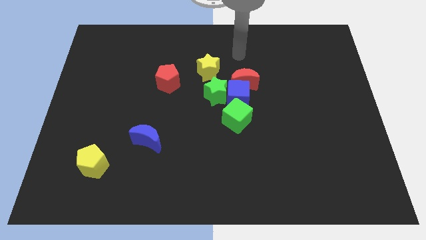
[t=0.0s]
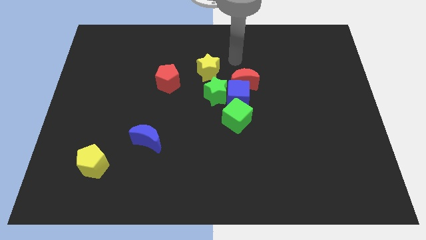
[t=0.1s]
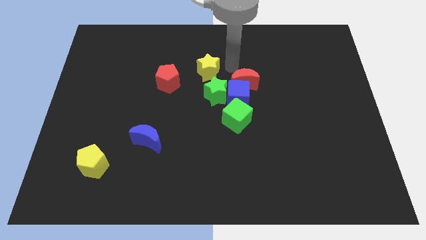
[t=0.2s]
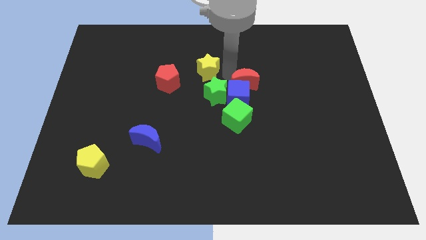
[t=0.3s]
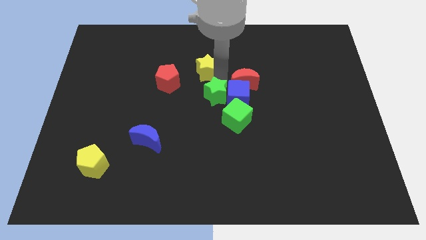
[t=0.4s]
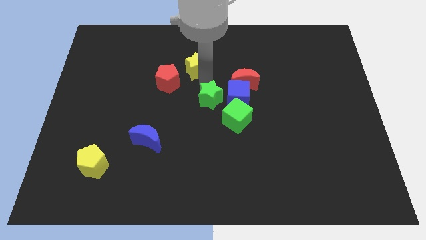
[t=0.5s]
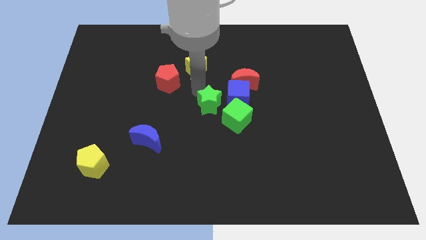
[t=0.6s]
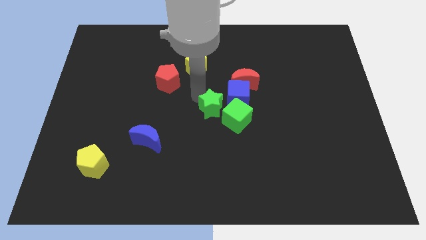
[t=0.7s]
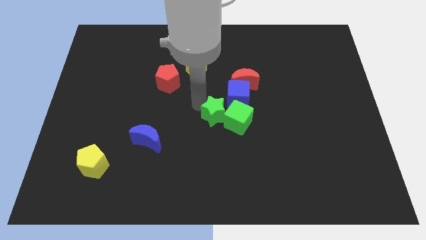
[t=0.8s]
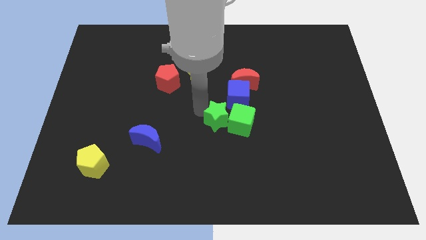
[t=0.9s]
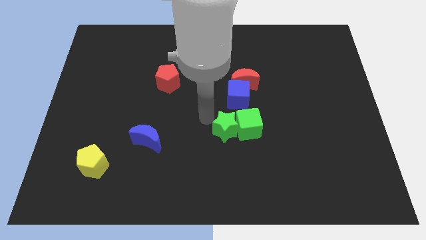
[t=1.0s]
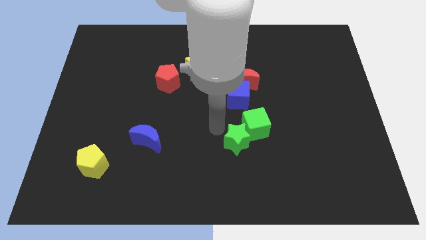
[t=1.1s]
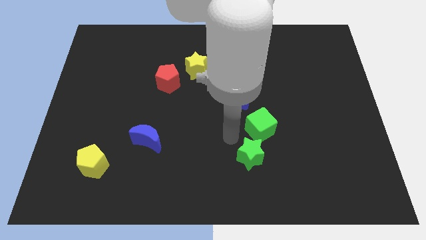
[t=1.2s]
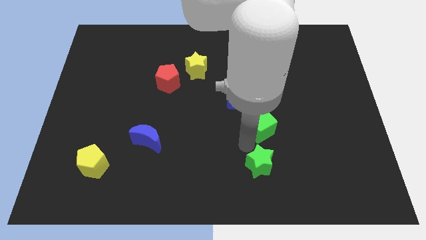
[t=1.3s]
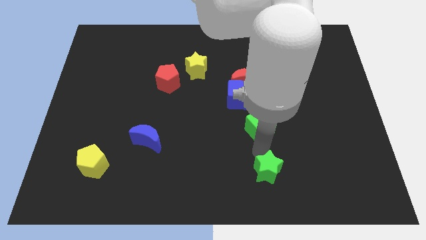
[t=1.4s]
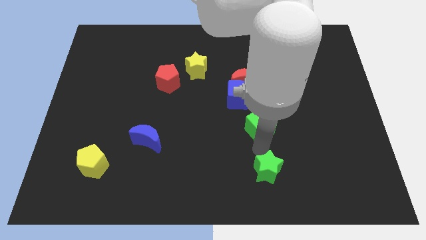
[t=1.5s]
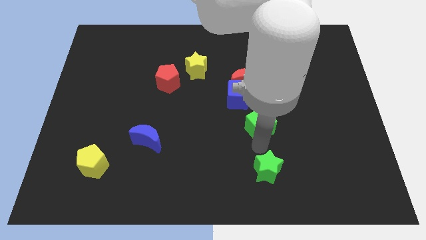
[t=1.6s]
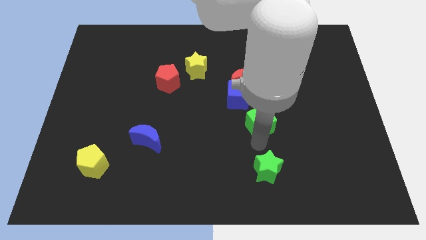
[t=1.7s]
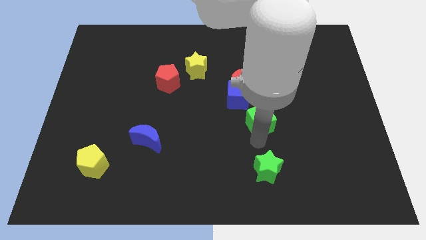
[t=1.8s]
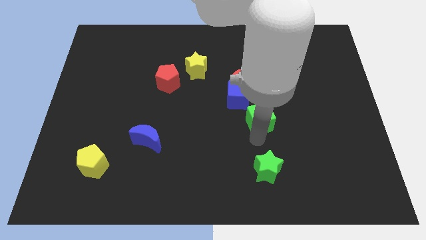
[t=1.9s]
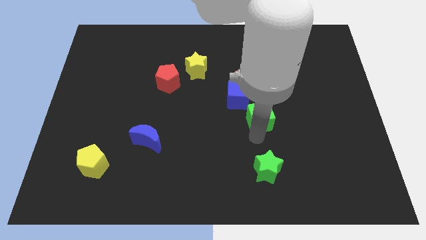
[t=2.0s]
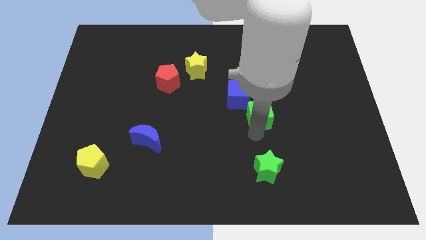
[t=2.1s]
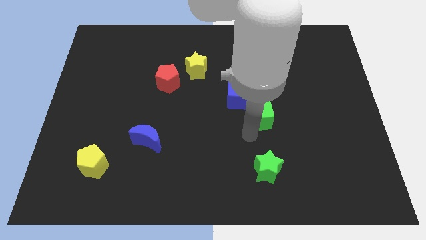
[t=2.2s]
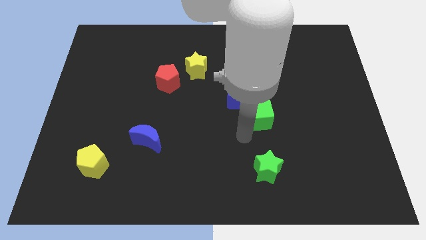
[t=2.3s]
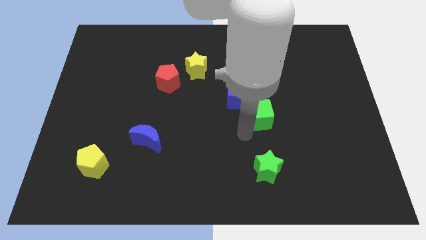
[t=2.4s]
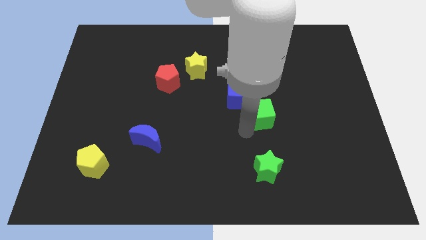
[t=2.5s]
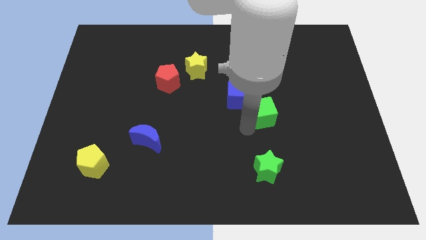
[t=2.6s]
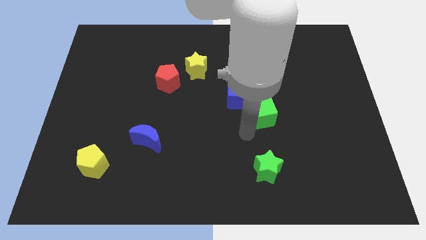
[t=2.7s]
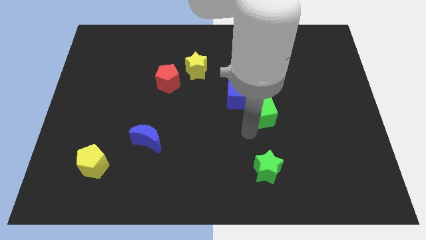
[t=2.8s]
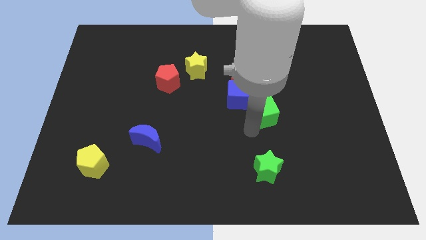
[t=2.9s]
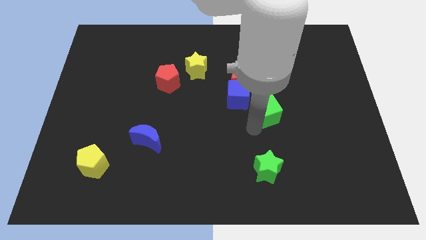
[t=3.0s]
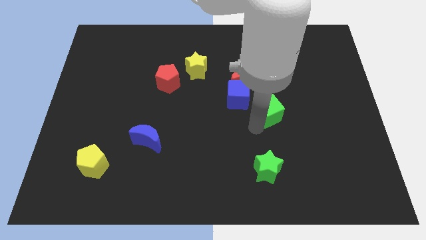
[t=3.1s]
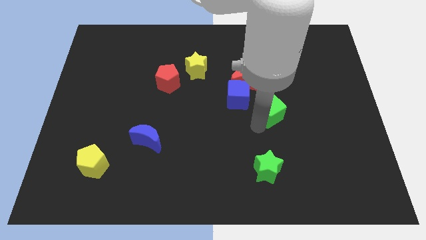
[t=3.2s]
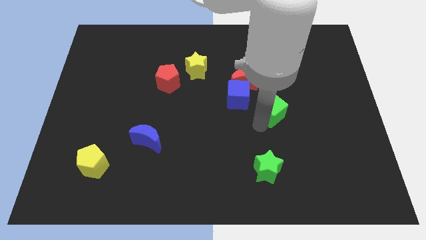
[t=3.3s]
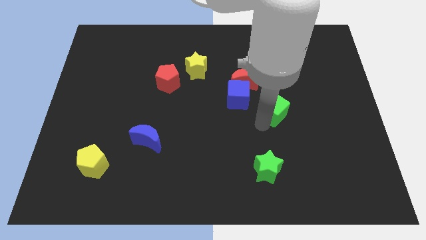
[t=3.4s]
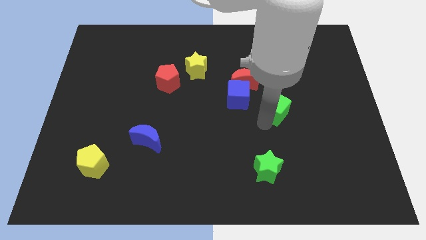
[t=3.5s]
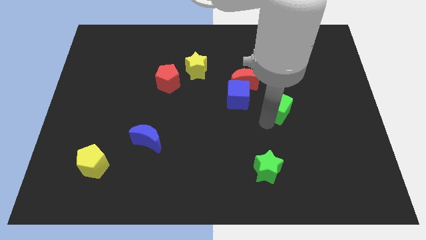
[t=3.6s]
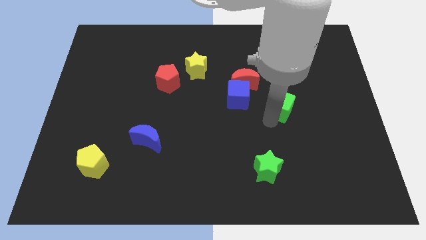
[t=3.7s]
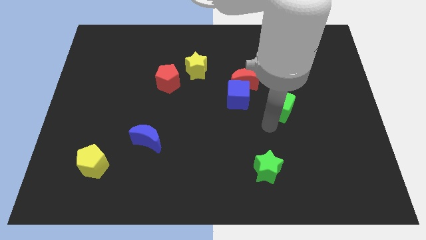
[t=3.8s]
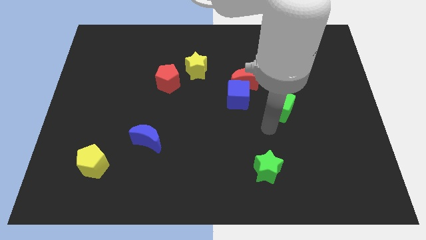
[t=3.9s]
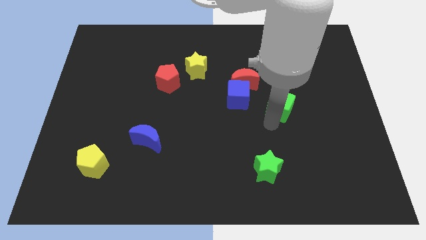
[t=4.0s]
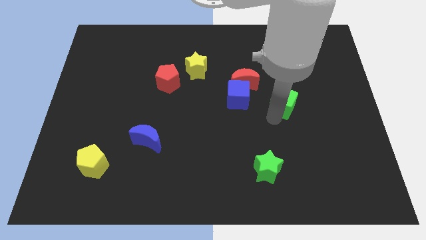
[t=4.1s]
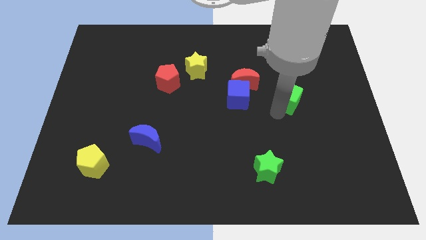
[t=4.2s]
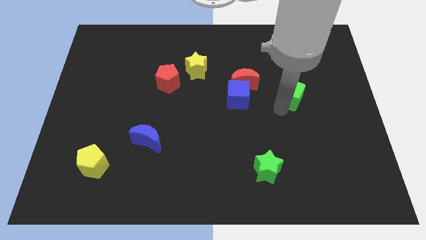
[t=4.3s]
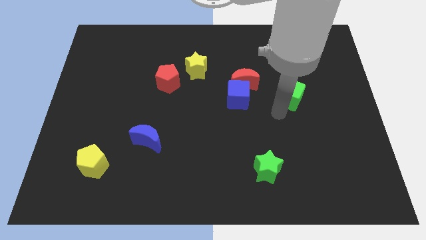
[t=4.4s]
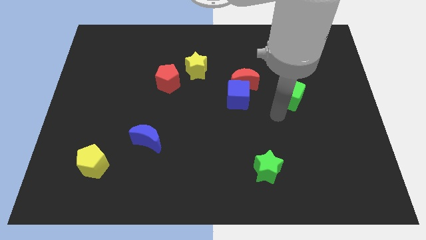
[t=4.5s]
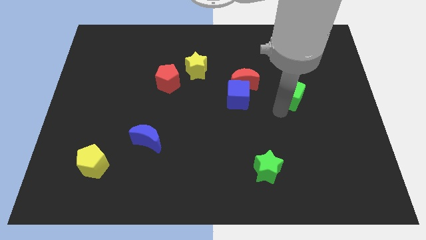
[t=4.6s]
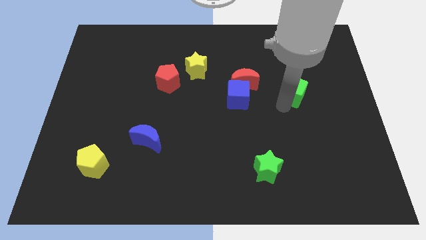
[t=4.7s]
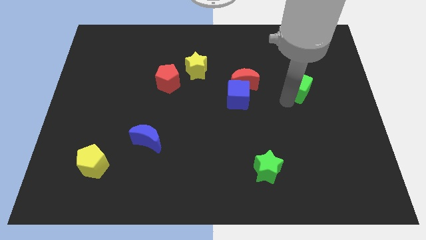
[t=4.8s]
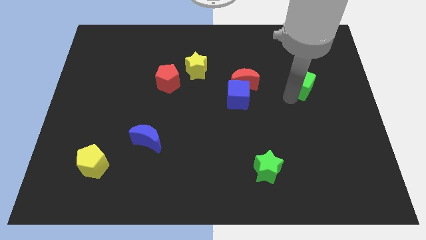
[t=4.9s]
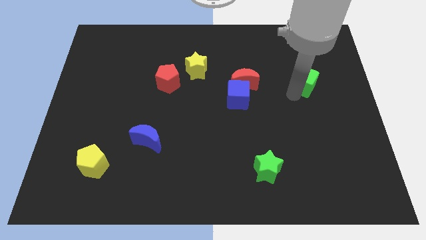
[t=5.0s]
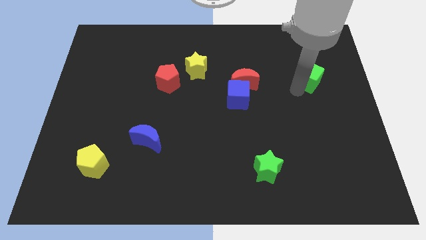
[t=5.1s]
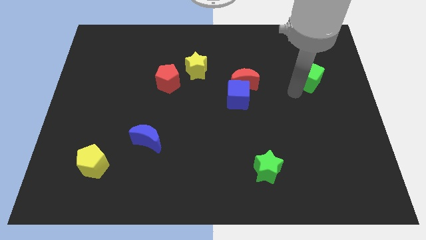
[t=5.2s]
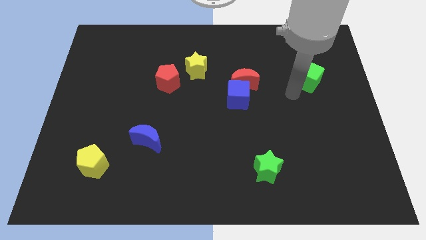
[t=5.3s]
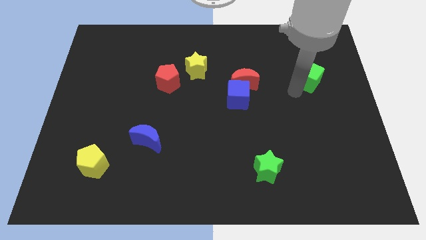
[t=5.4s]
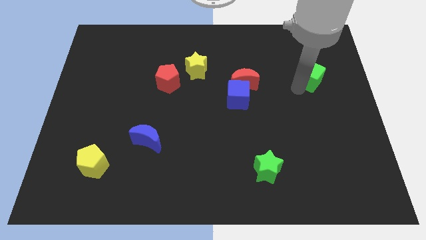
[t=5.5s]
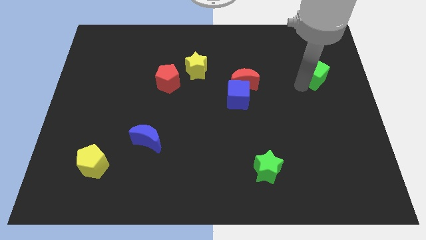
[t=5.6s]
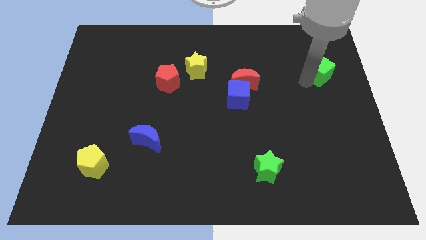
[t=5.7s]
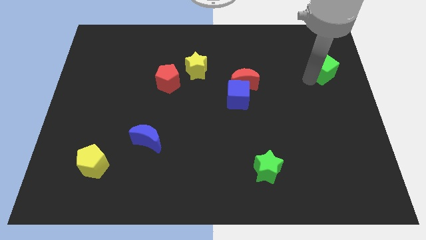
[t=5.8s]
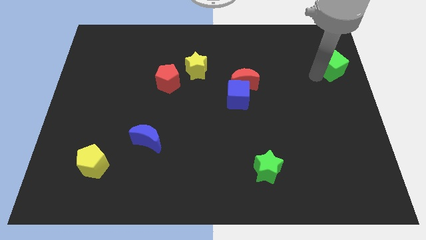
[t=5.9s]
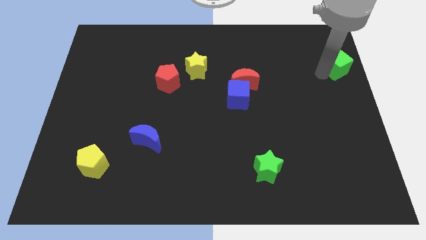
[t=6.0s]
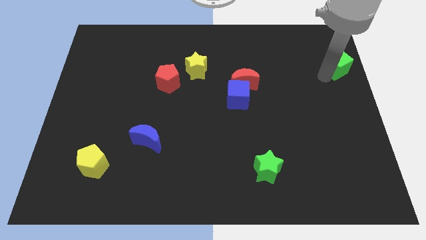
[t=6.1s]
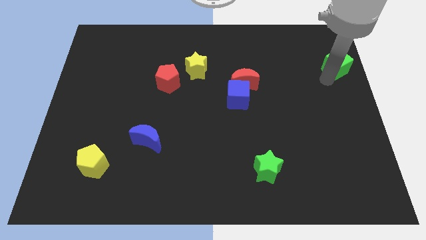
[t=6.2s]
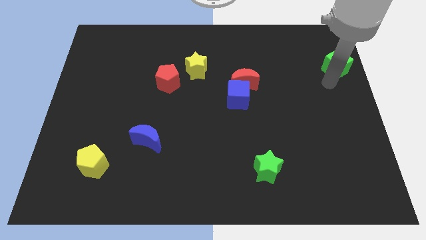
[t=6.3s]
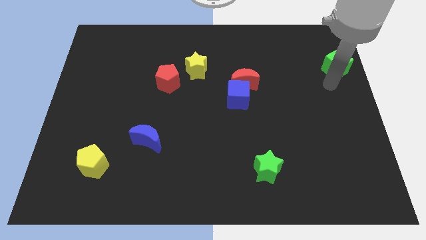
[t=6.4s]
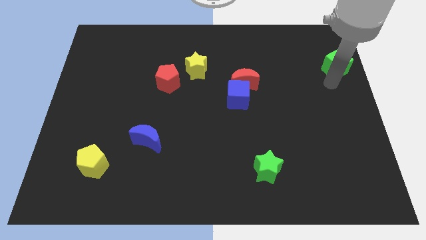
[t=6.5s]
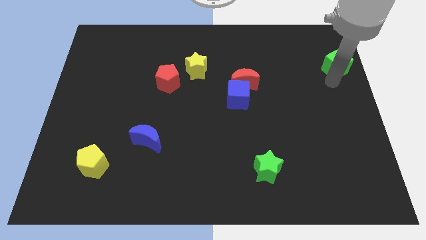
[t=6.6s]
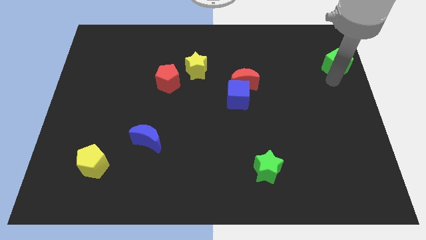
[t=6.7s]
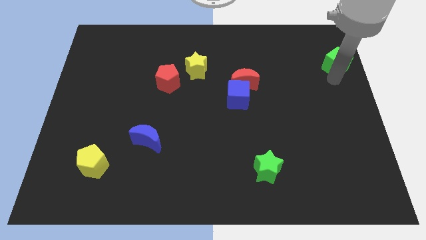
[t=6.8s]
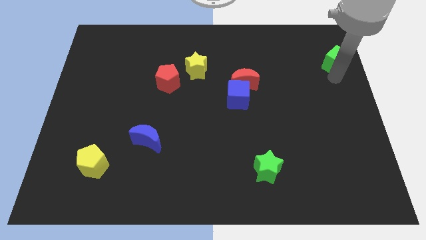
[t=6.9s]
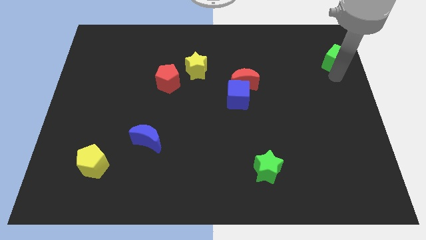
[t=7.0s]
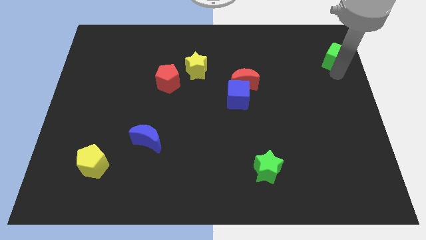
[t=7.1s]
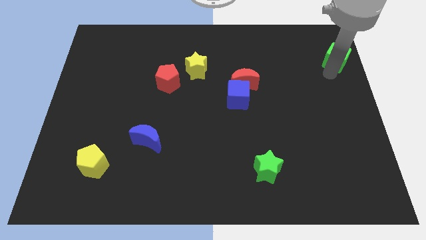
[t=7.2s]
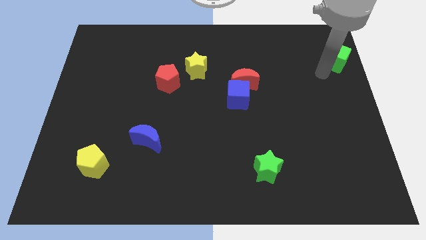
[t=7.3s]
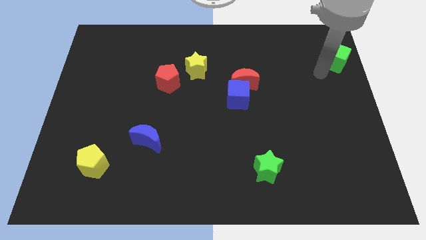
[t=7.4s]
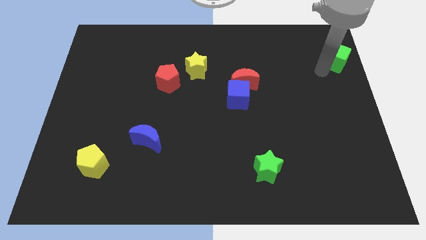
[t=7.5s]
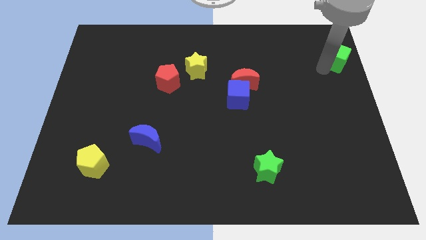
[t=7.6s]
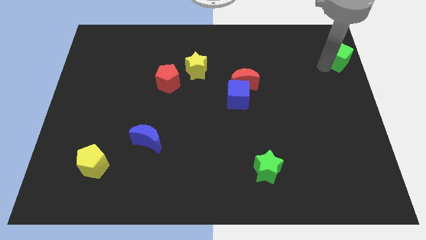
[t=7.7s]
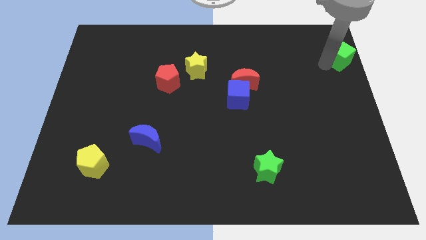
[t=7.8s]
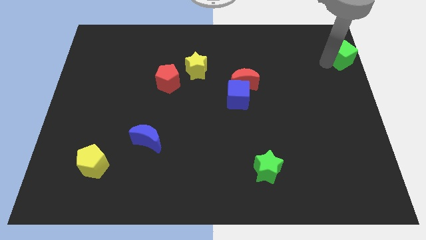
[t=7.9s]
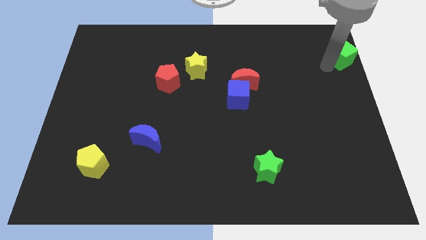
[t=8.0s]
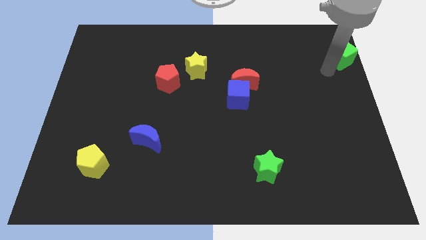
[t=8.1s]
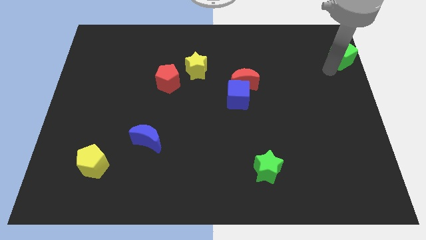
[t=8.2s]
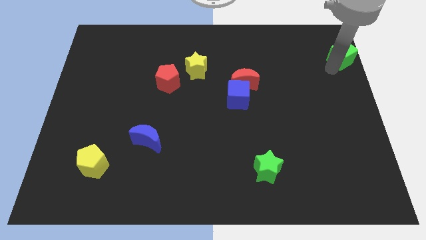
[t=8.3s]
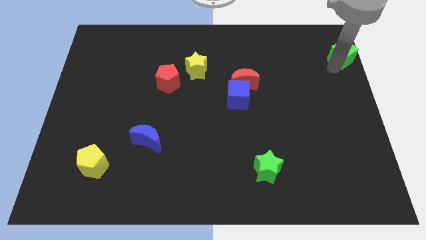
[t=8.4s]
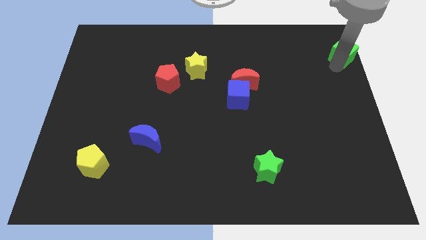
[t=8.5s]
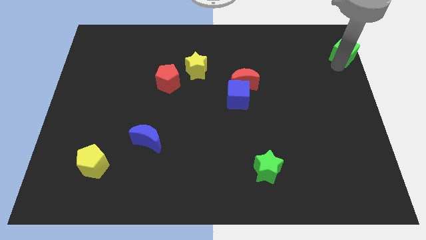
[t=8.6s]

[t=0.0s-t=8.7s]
move the green cube to the upper right corner
